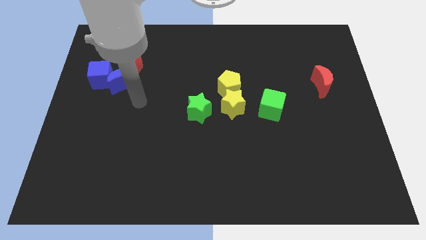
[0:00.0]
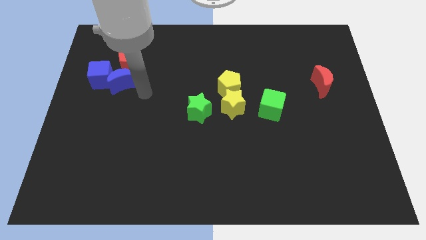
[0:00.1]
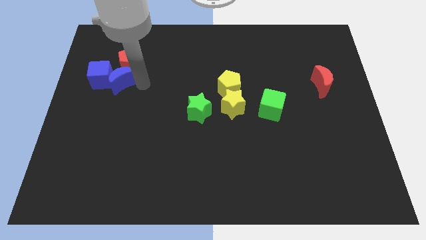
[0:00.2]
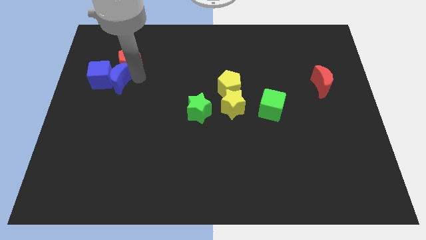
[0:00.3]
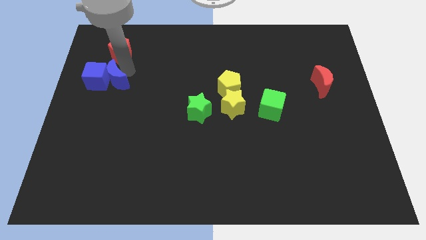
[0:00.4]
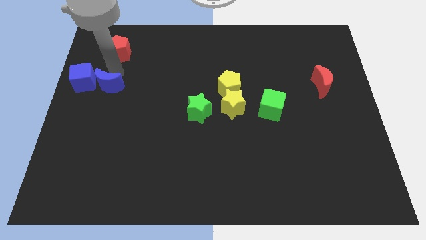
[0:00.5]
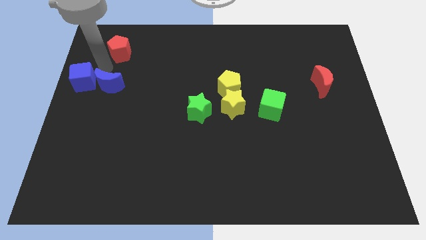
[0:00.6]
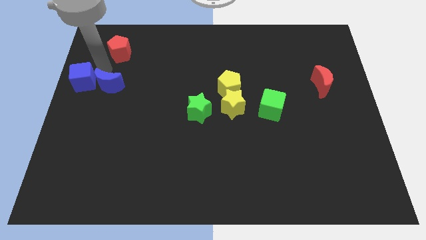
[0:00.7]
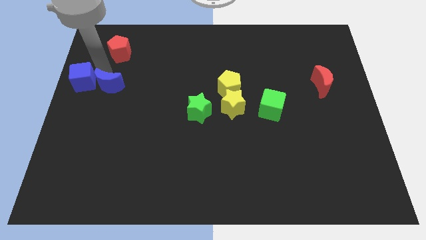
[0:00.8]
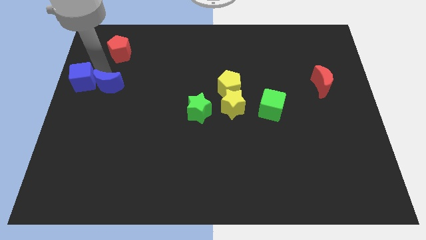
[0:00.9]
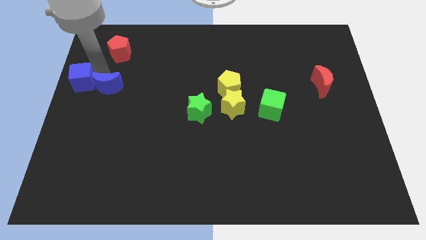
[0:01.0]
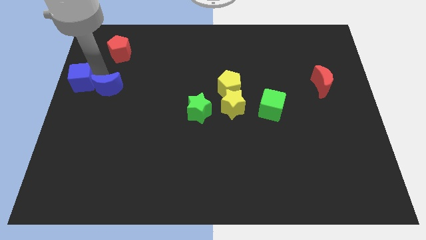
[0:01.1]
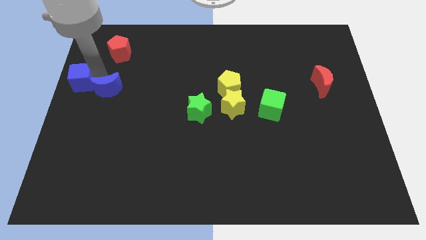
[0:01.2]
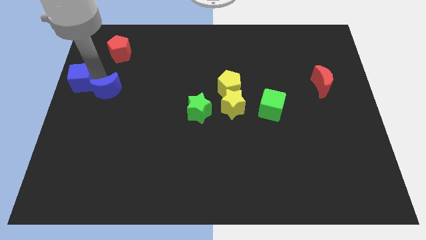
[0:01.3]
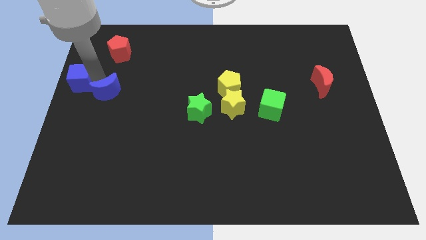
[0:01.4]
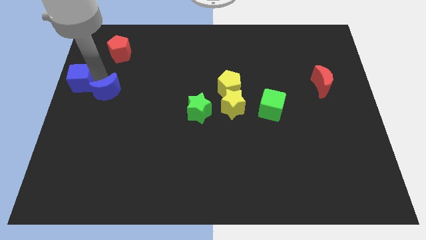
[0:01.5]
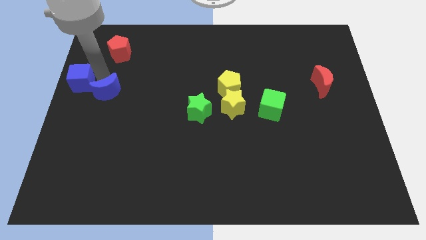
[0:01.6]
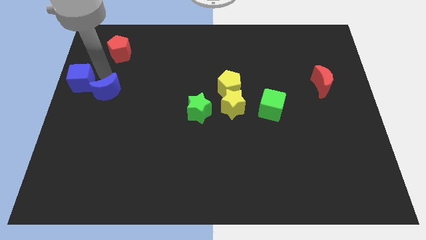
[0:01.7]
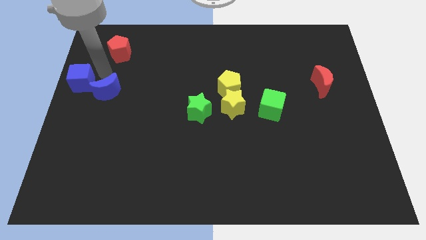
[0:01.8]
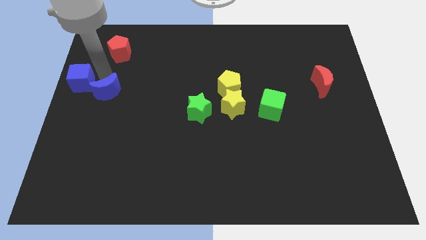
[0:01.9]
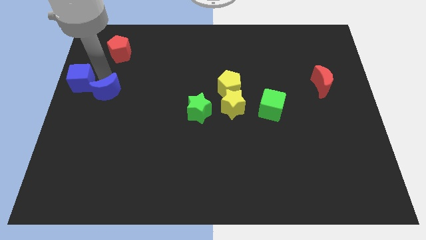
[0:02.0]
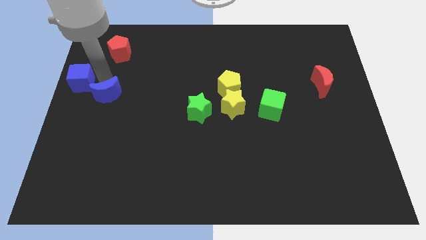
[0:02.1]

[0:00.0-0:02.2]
move the blue moon away from the blue cube and red pentagon

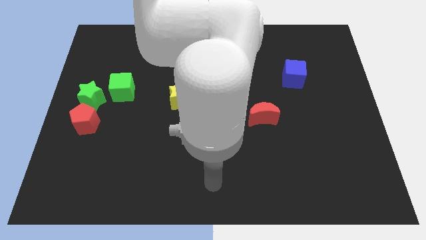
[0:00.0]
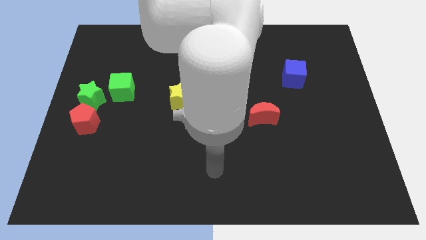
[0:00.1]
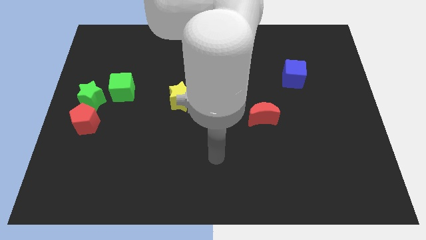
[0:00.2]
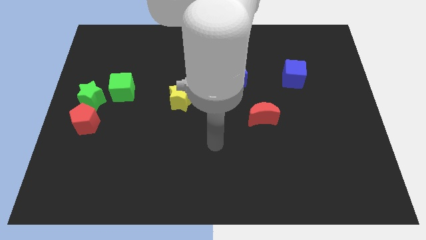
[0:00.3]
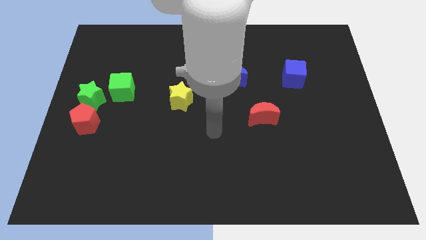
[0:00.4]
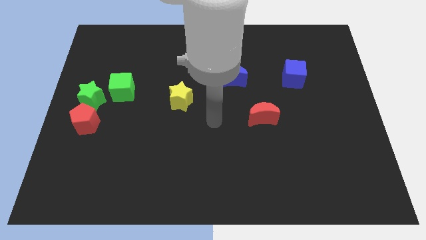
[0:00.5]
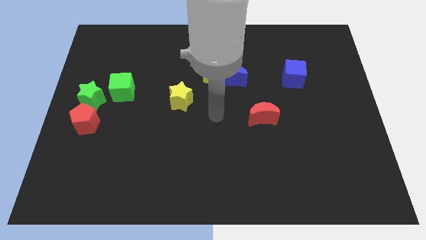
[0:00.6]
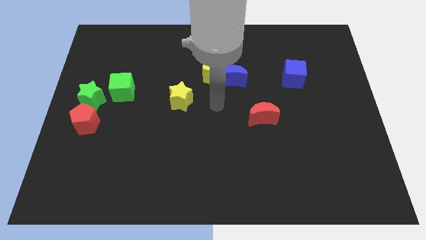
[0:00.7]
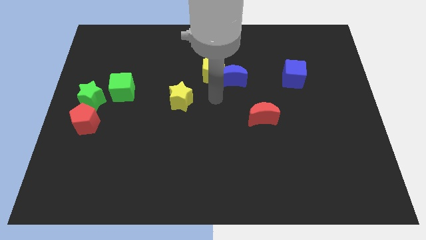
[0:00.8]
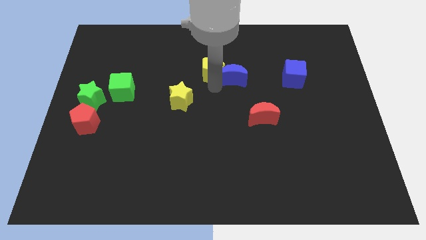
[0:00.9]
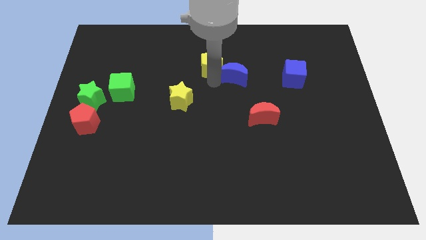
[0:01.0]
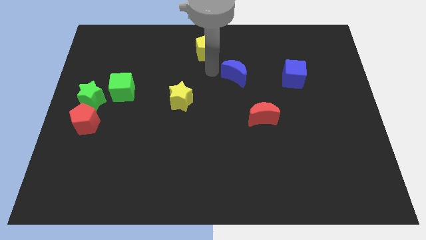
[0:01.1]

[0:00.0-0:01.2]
move the blue moon away from the yellow pentagon

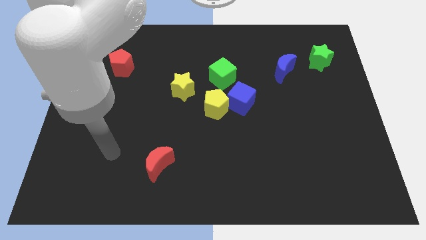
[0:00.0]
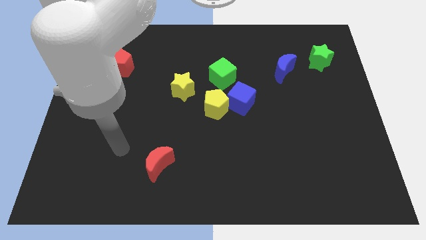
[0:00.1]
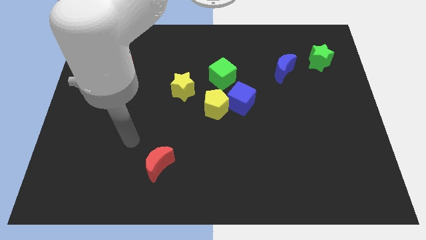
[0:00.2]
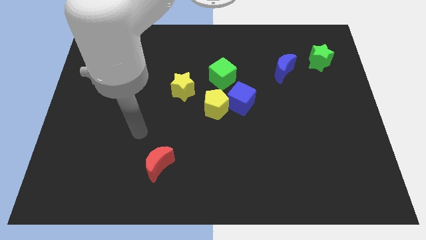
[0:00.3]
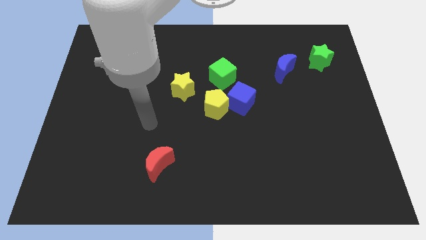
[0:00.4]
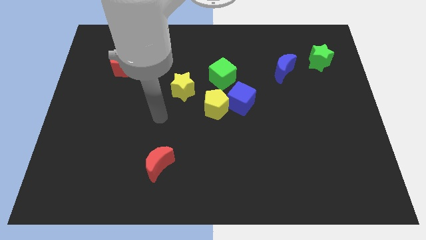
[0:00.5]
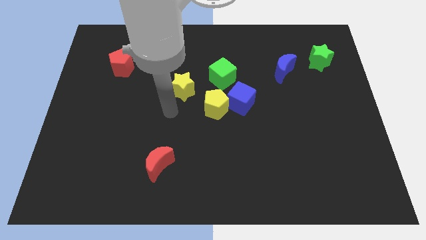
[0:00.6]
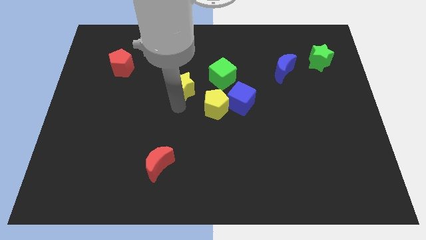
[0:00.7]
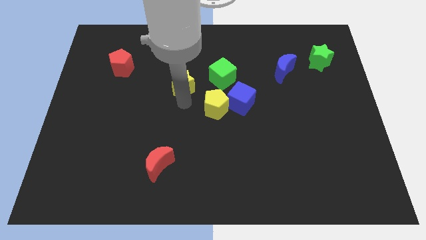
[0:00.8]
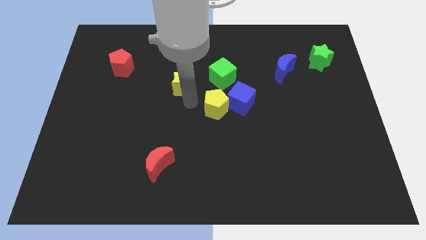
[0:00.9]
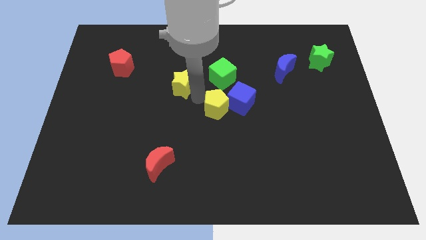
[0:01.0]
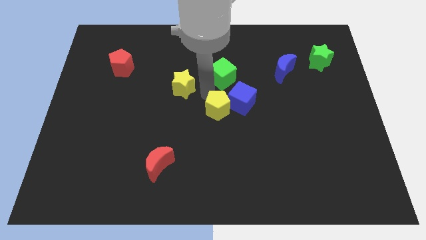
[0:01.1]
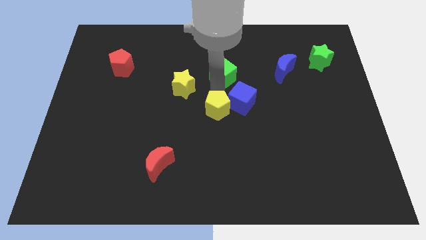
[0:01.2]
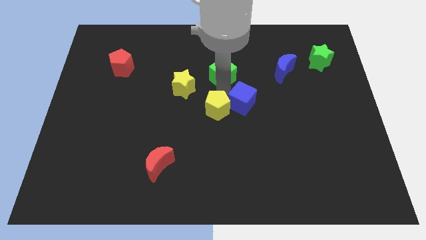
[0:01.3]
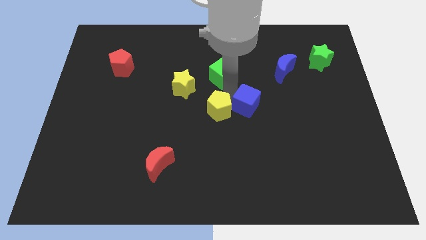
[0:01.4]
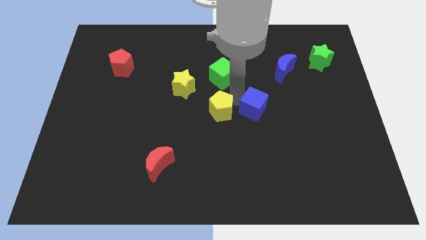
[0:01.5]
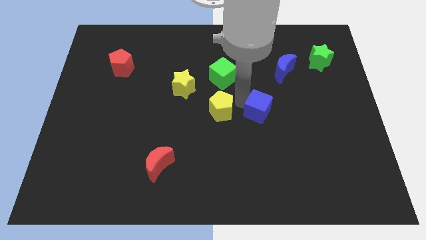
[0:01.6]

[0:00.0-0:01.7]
pull the blue cube apart from the yellow pentagon and green cube

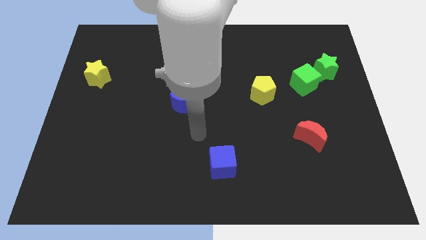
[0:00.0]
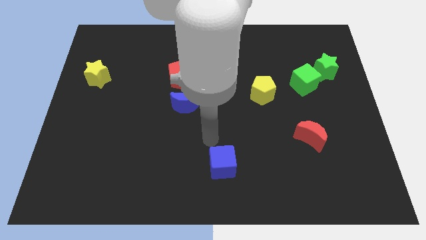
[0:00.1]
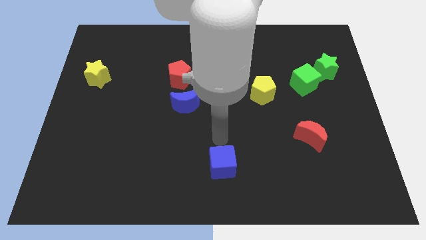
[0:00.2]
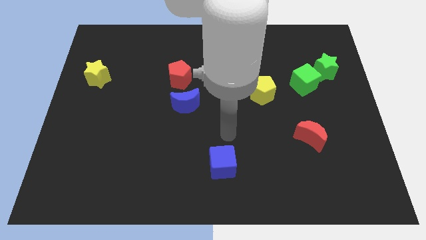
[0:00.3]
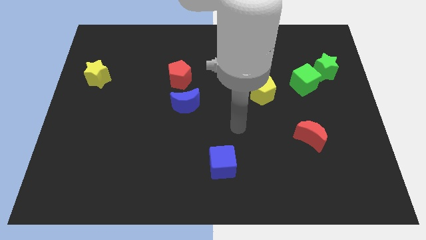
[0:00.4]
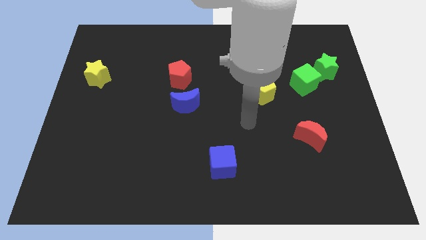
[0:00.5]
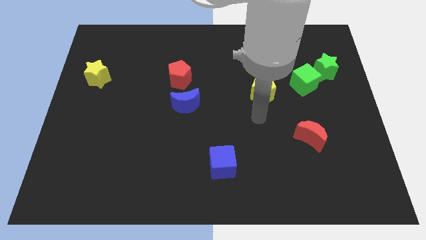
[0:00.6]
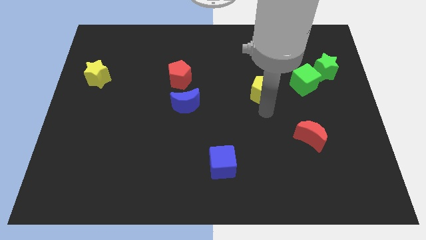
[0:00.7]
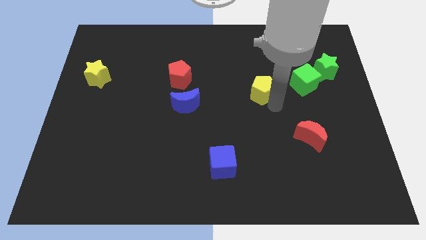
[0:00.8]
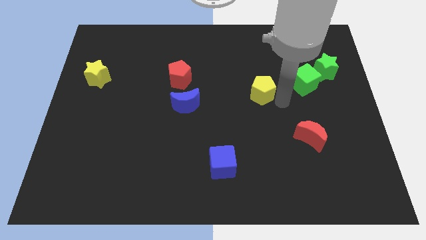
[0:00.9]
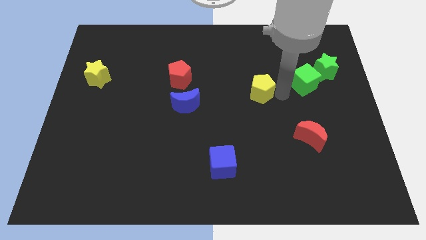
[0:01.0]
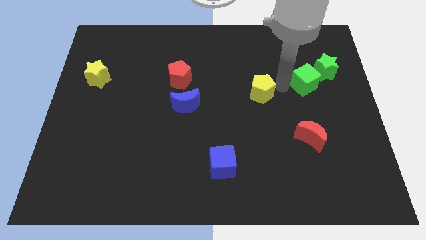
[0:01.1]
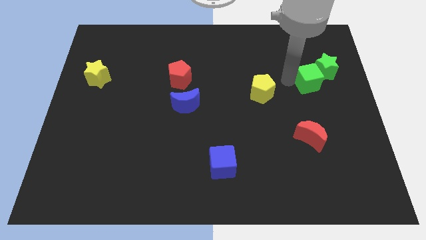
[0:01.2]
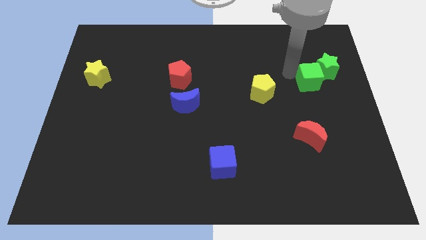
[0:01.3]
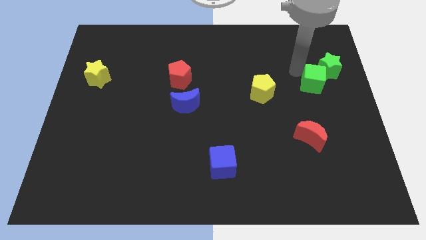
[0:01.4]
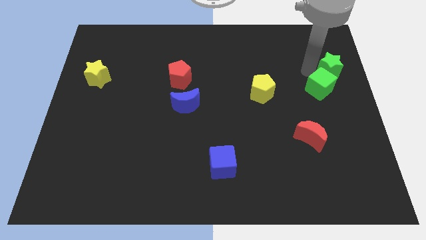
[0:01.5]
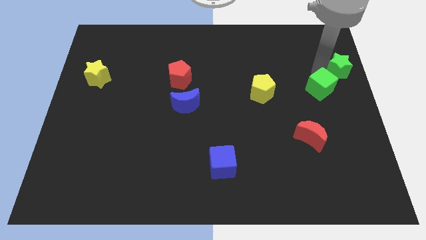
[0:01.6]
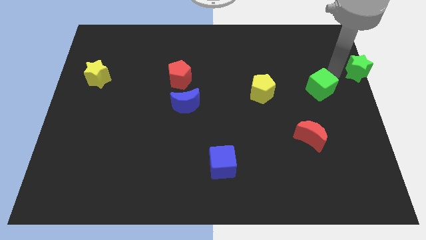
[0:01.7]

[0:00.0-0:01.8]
separate the green cube from the green star

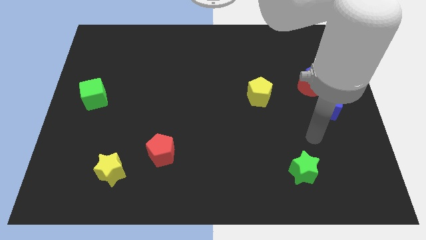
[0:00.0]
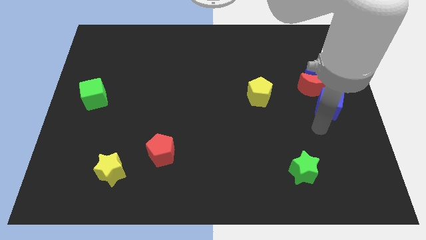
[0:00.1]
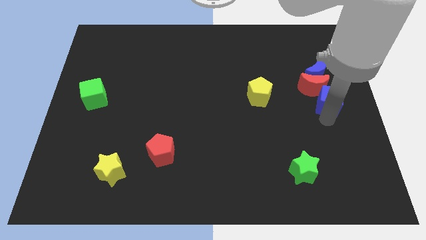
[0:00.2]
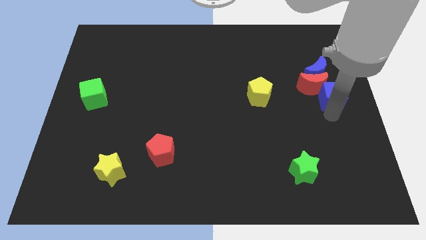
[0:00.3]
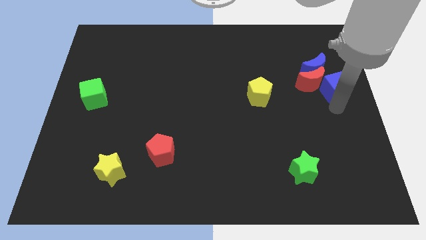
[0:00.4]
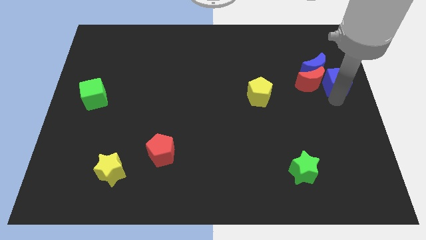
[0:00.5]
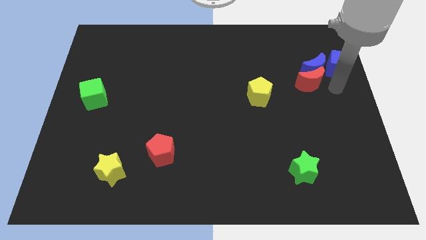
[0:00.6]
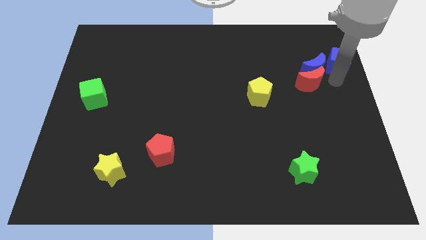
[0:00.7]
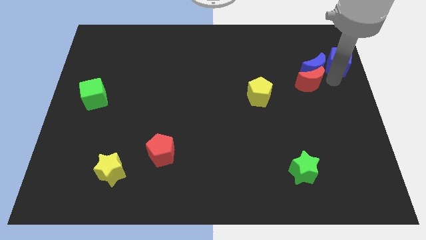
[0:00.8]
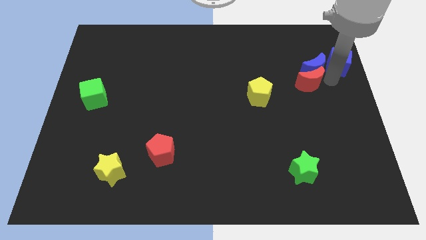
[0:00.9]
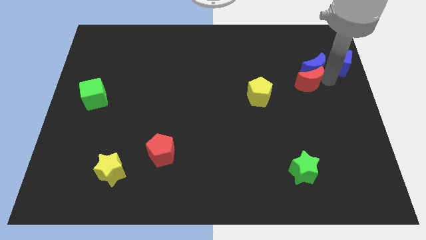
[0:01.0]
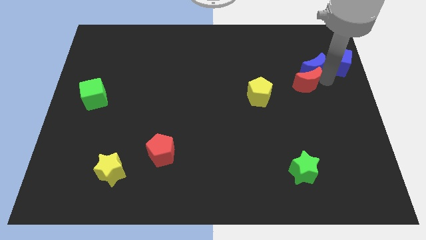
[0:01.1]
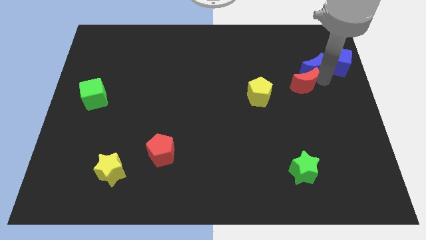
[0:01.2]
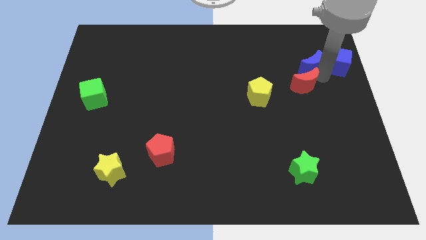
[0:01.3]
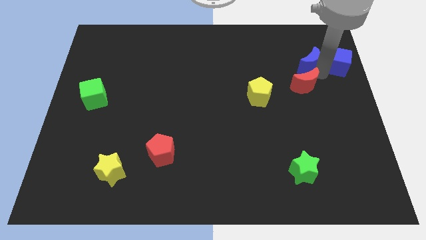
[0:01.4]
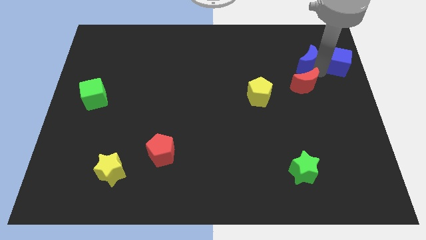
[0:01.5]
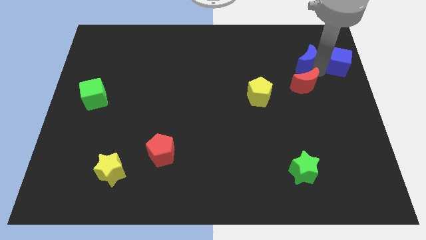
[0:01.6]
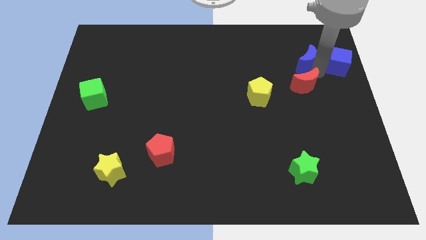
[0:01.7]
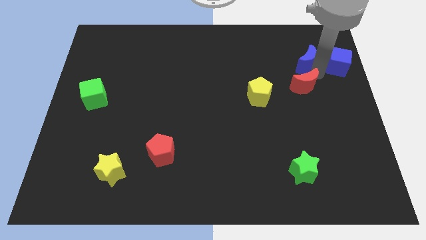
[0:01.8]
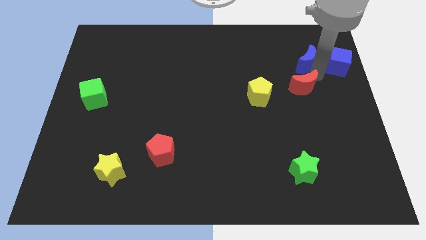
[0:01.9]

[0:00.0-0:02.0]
move the red moon away from the blue moon and blue cube

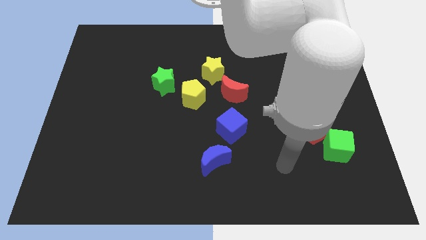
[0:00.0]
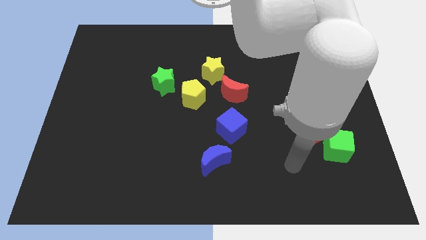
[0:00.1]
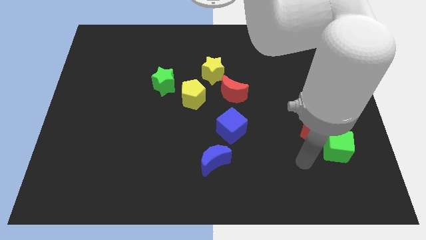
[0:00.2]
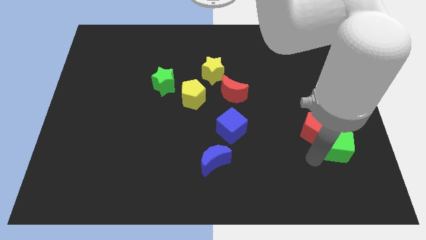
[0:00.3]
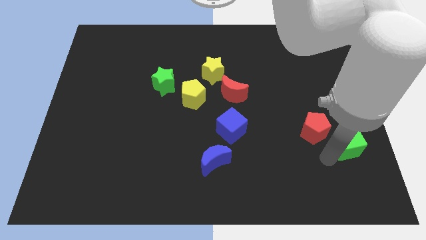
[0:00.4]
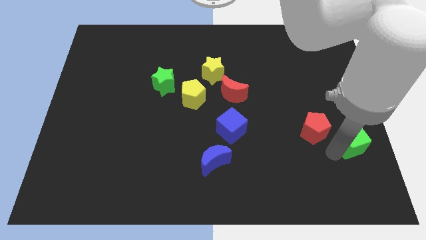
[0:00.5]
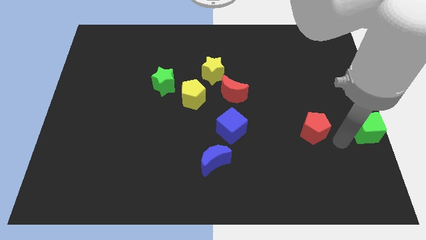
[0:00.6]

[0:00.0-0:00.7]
separate the red pentagon from the green cube
